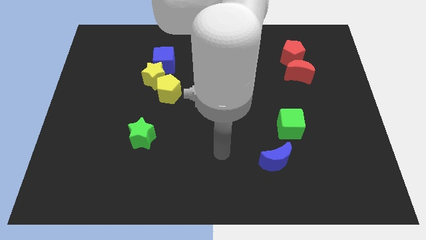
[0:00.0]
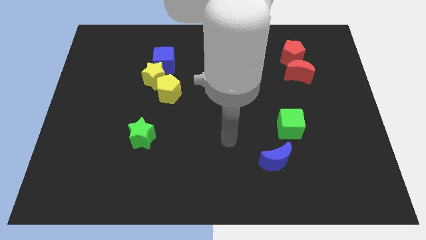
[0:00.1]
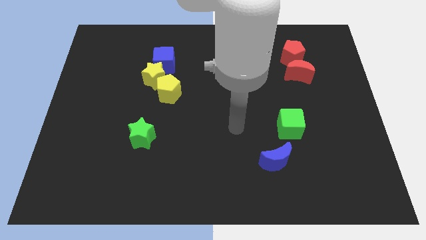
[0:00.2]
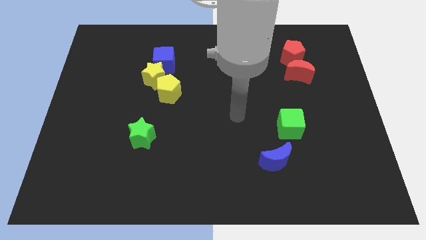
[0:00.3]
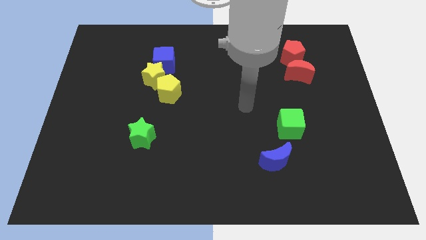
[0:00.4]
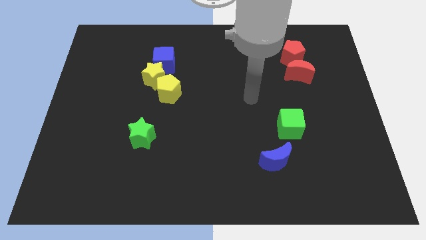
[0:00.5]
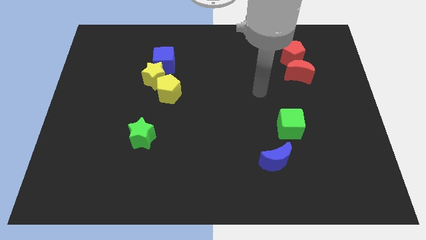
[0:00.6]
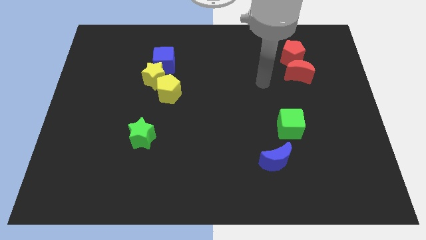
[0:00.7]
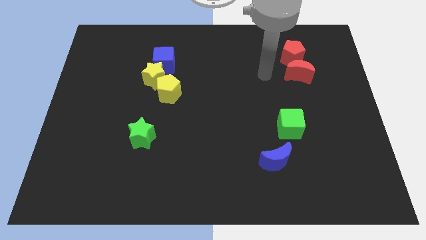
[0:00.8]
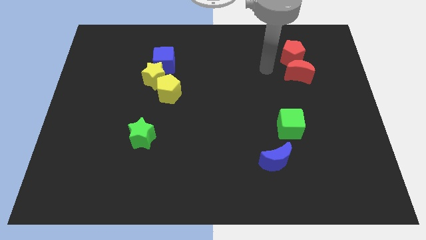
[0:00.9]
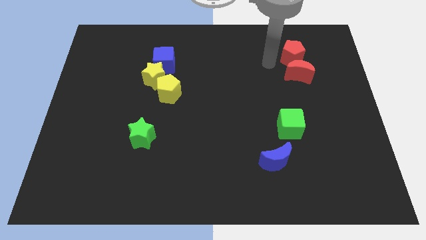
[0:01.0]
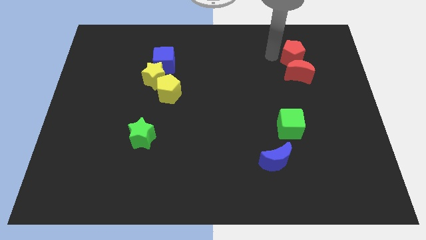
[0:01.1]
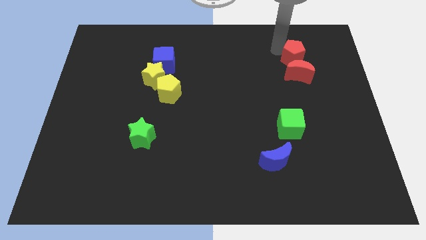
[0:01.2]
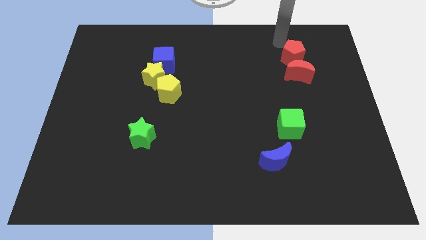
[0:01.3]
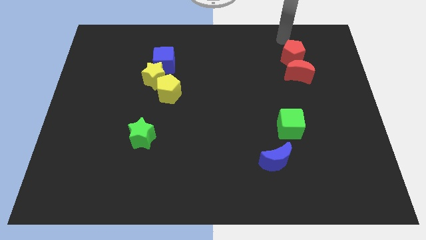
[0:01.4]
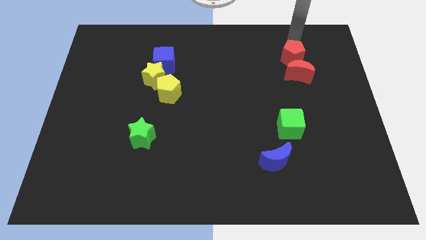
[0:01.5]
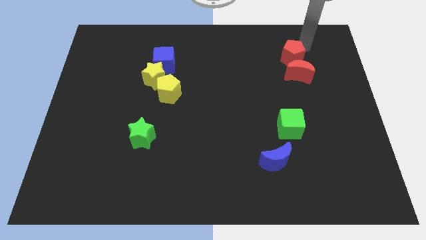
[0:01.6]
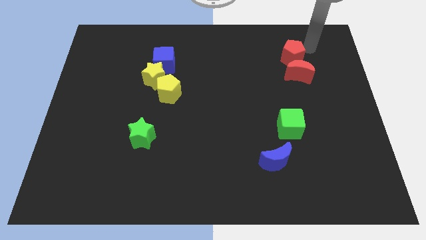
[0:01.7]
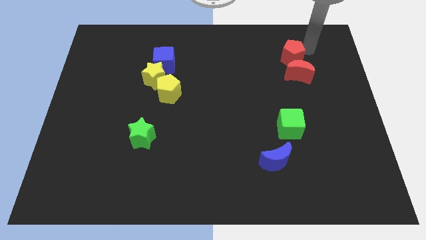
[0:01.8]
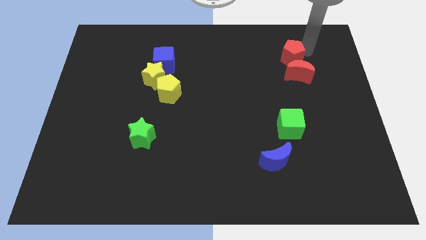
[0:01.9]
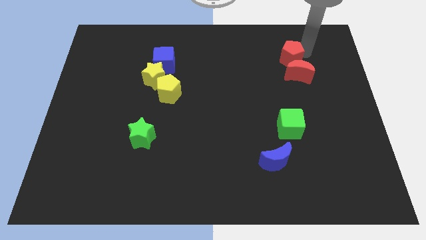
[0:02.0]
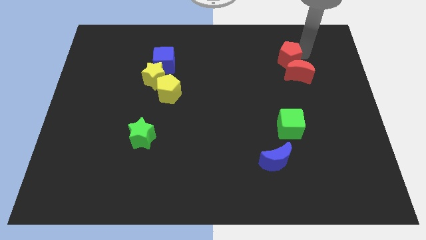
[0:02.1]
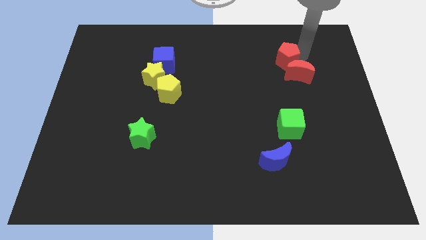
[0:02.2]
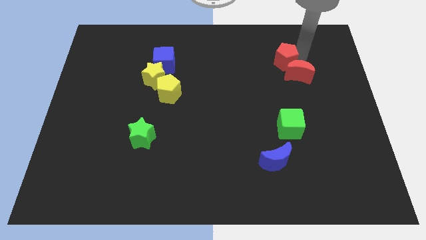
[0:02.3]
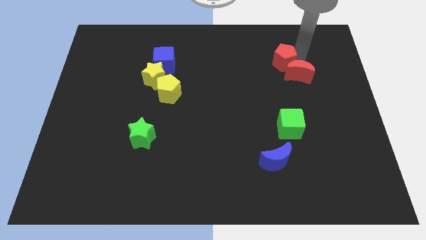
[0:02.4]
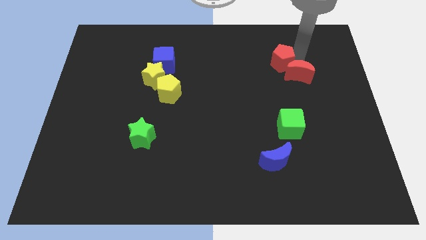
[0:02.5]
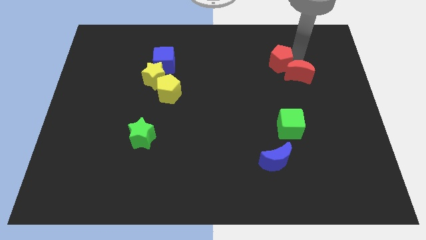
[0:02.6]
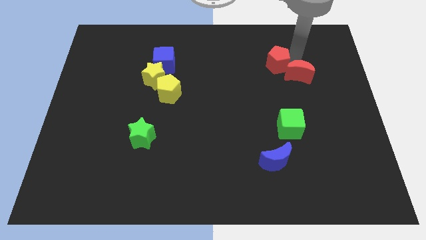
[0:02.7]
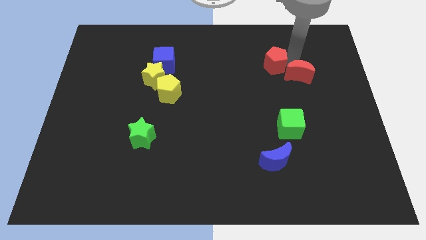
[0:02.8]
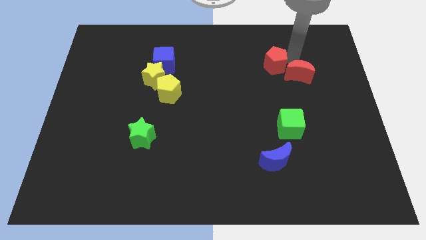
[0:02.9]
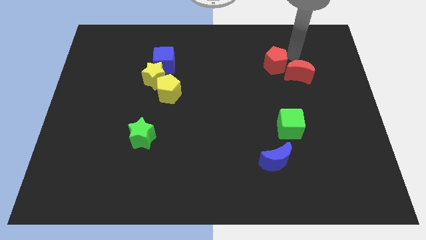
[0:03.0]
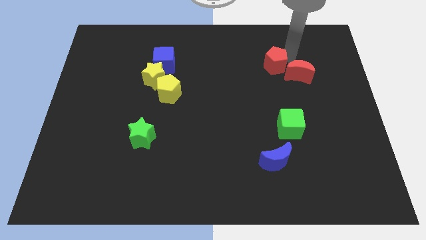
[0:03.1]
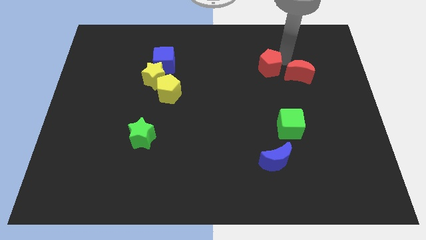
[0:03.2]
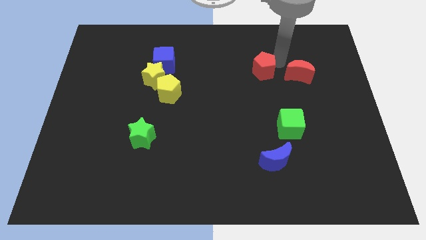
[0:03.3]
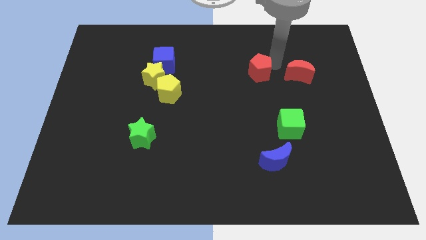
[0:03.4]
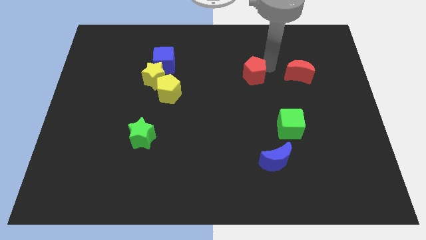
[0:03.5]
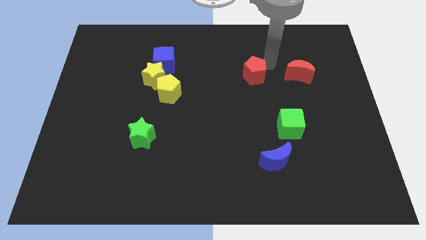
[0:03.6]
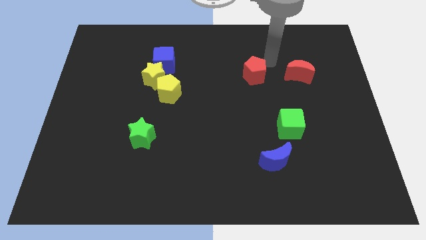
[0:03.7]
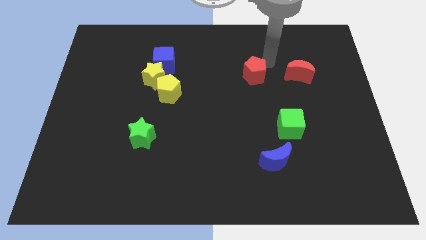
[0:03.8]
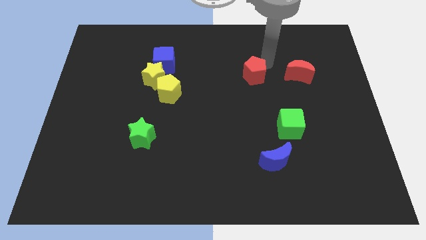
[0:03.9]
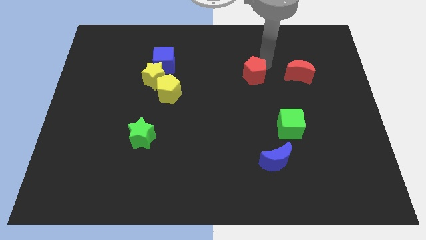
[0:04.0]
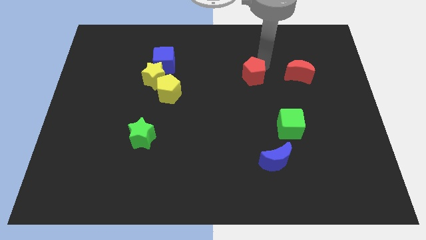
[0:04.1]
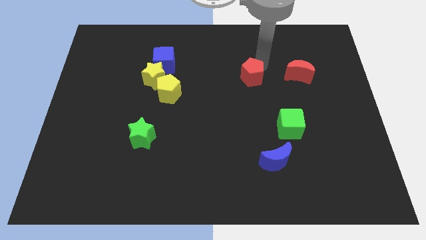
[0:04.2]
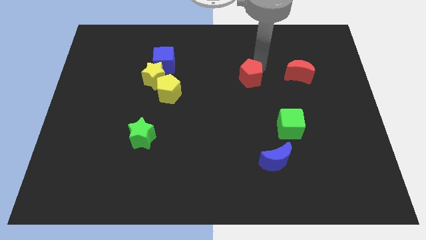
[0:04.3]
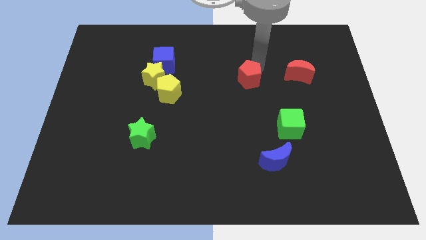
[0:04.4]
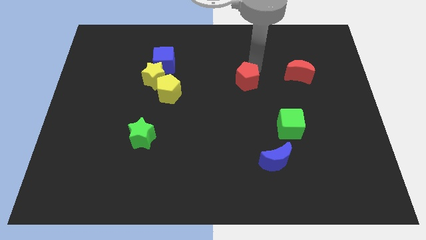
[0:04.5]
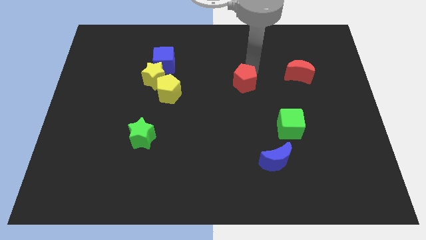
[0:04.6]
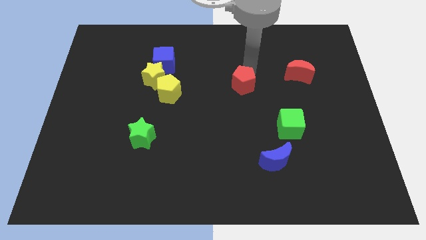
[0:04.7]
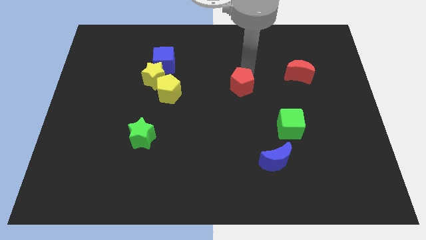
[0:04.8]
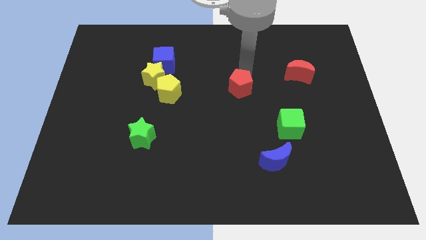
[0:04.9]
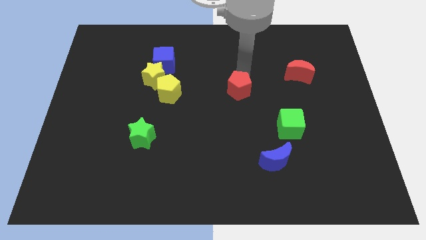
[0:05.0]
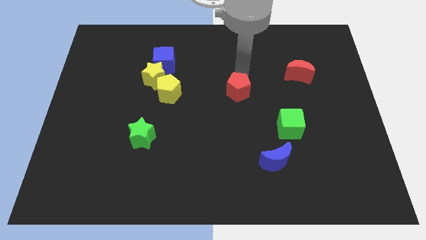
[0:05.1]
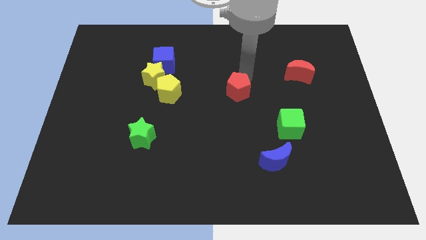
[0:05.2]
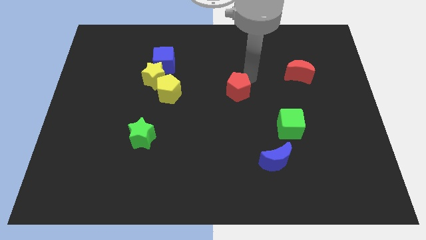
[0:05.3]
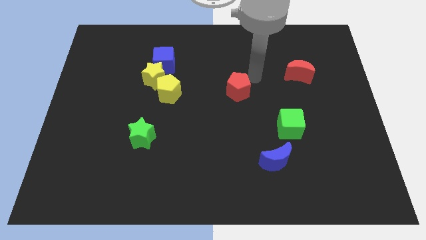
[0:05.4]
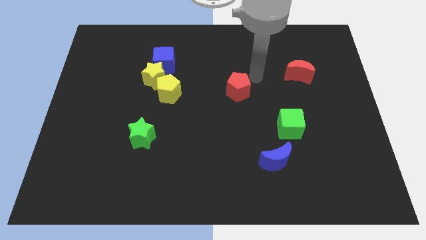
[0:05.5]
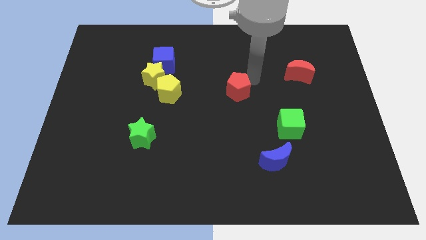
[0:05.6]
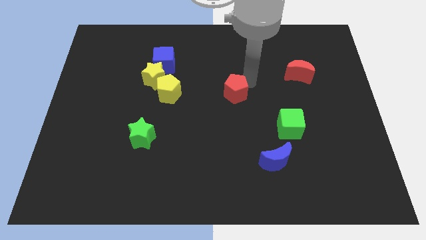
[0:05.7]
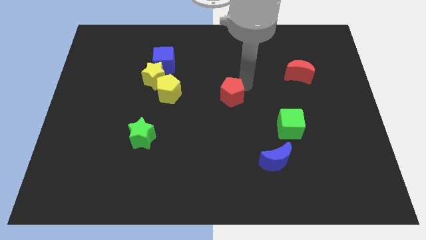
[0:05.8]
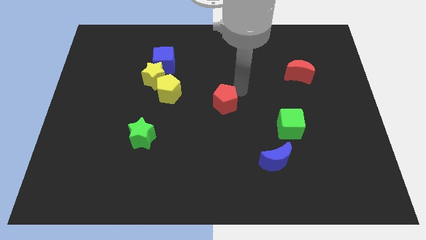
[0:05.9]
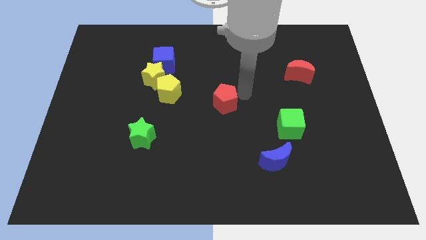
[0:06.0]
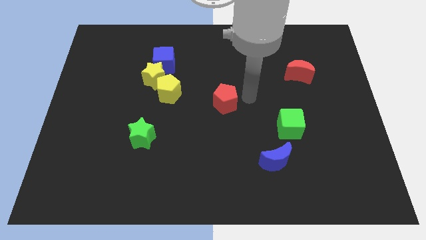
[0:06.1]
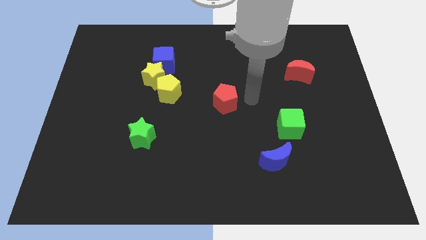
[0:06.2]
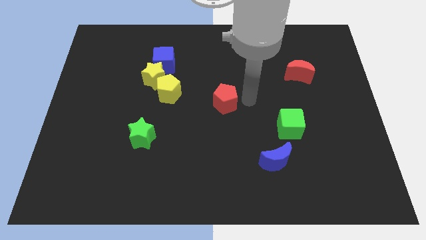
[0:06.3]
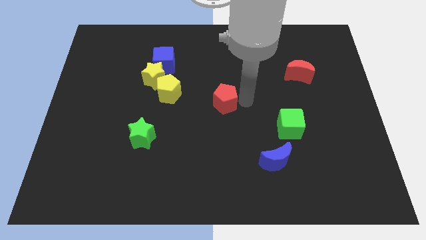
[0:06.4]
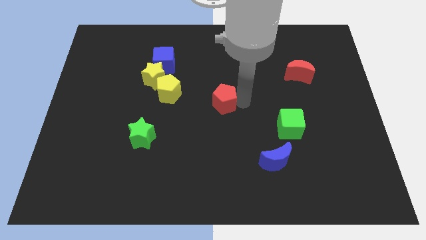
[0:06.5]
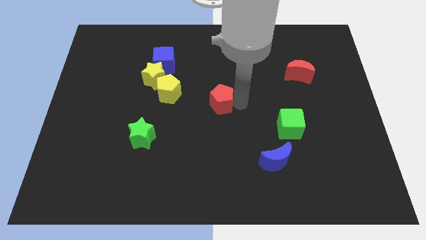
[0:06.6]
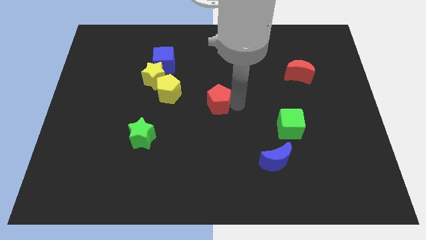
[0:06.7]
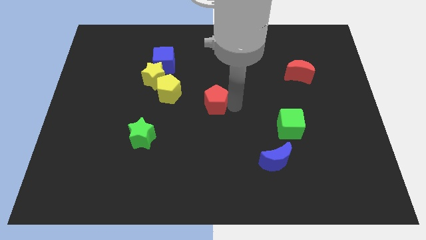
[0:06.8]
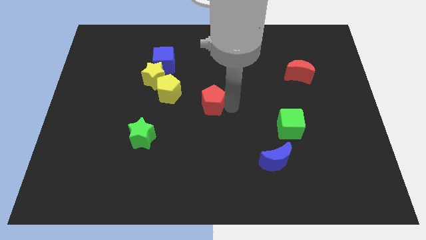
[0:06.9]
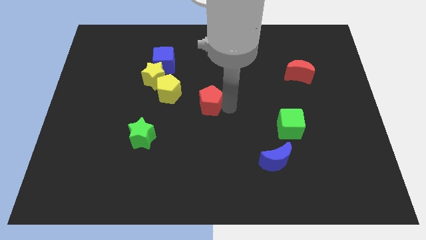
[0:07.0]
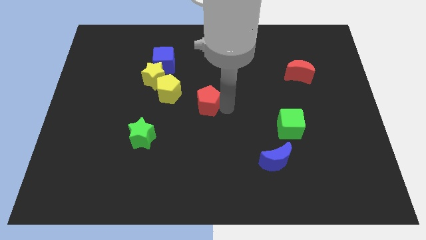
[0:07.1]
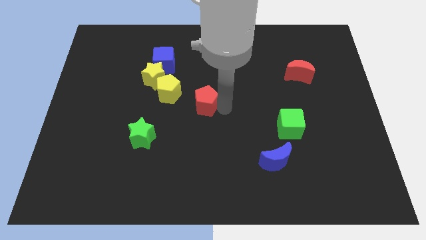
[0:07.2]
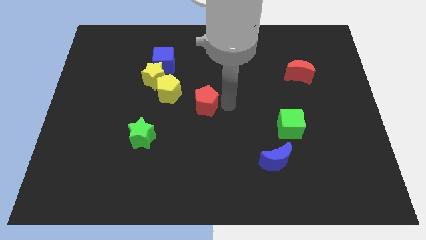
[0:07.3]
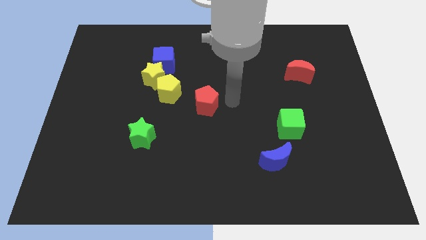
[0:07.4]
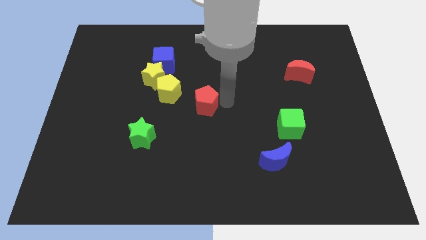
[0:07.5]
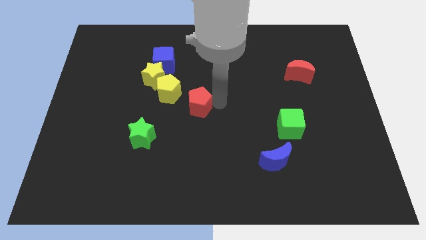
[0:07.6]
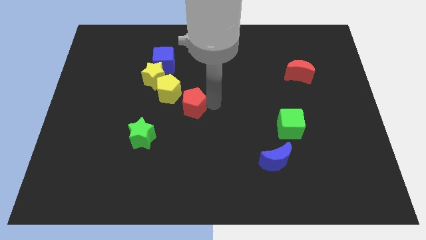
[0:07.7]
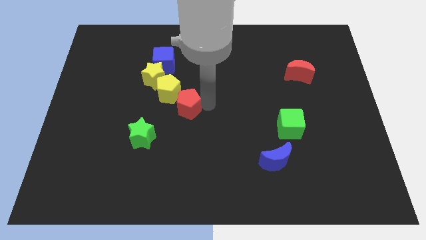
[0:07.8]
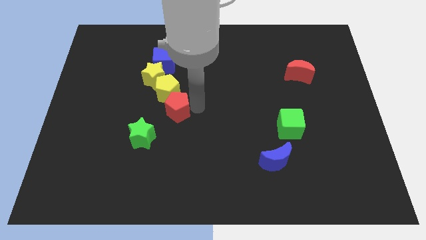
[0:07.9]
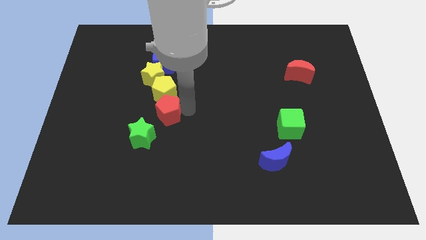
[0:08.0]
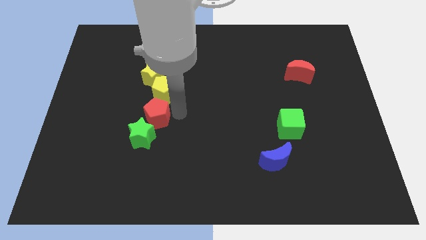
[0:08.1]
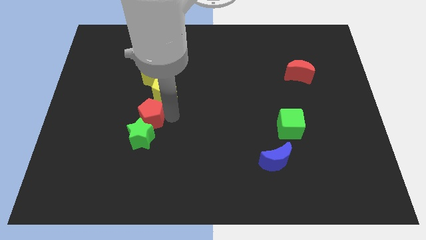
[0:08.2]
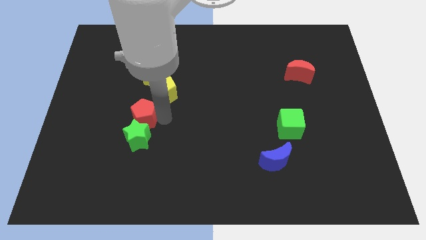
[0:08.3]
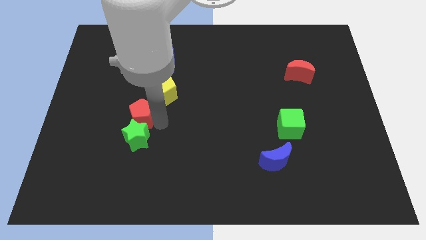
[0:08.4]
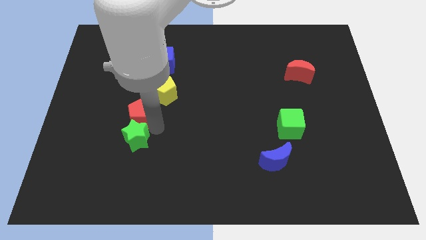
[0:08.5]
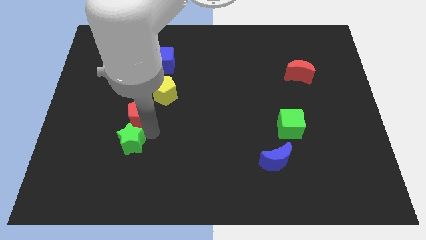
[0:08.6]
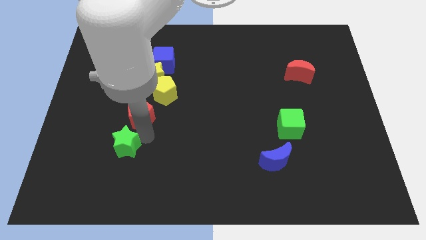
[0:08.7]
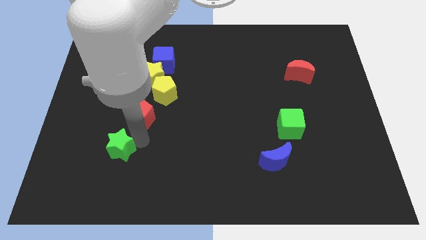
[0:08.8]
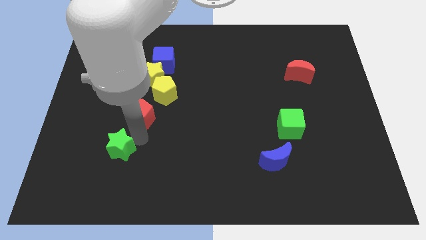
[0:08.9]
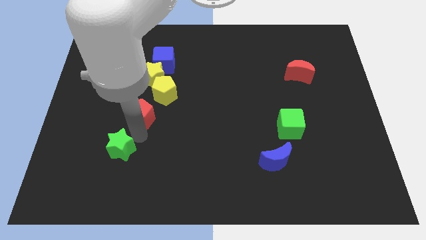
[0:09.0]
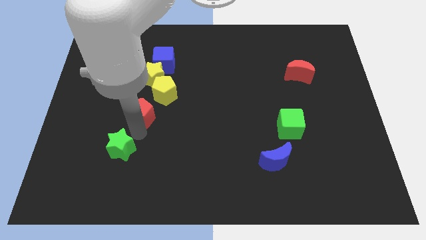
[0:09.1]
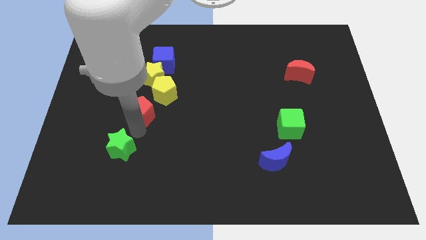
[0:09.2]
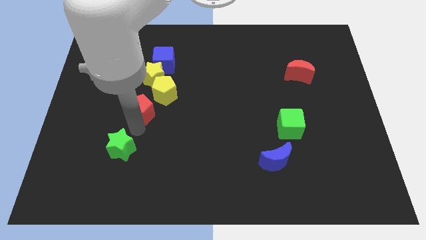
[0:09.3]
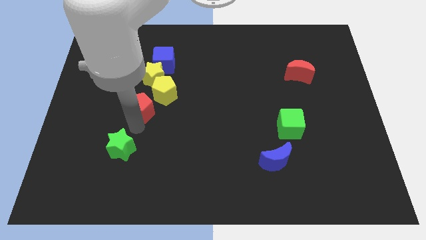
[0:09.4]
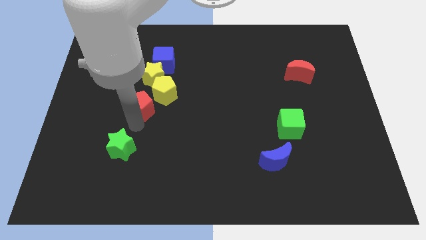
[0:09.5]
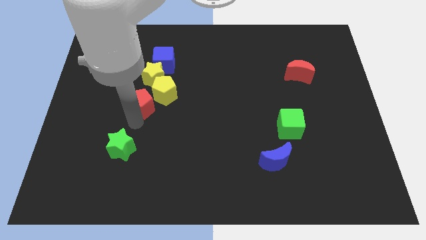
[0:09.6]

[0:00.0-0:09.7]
push the red pentagon to the bottom left side of the yellow star
